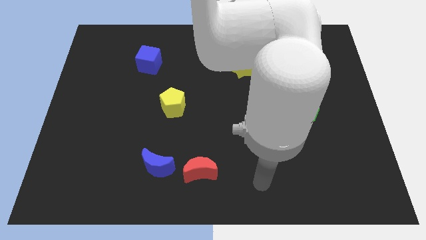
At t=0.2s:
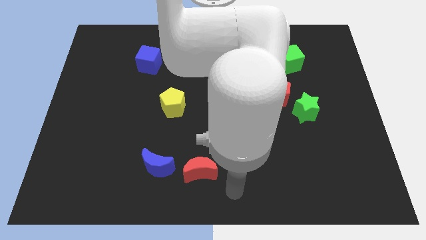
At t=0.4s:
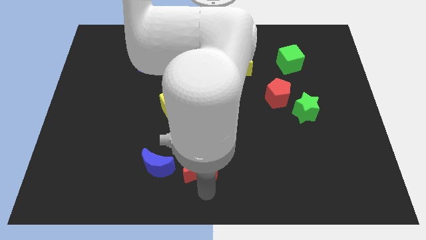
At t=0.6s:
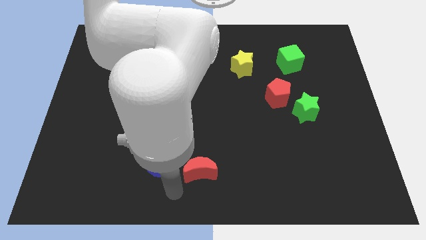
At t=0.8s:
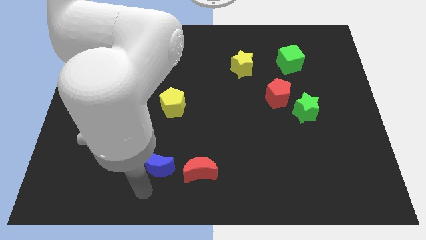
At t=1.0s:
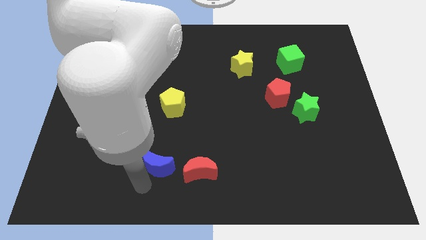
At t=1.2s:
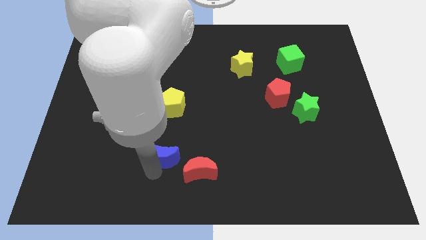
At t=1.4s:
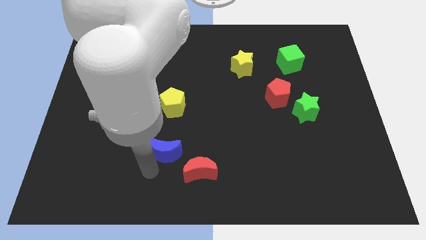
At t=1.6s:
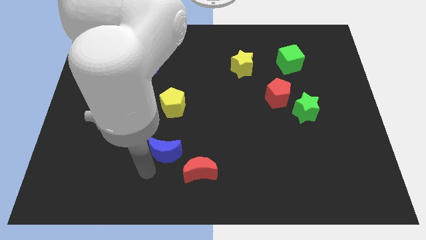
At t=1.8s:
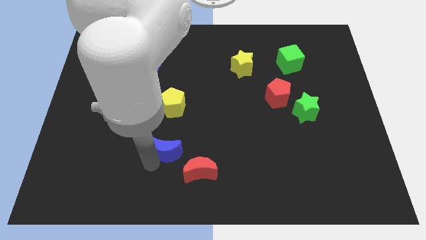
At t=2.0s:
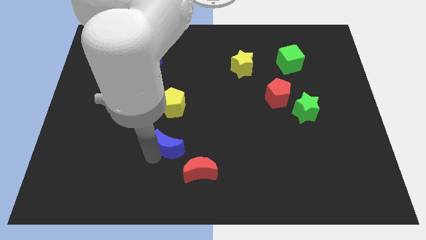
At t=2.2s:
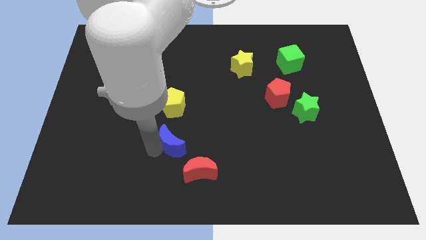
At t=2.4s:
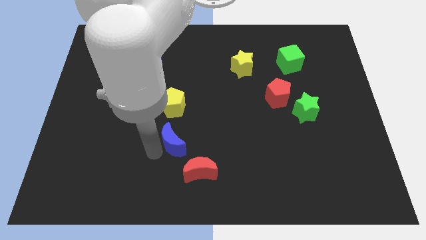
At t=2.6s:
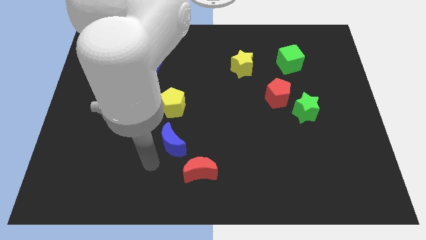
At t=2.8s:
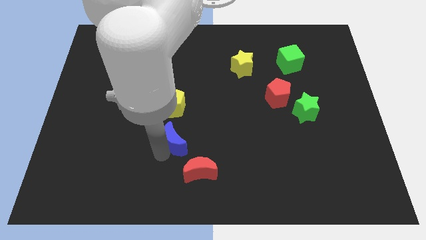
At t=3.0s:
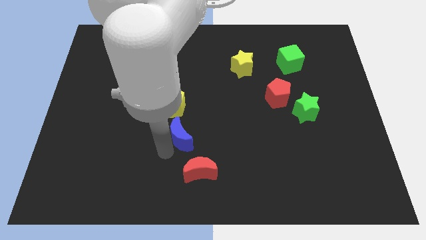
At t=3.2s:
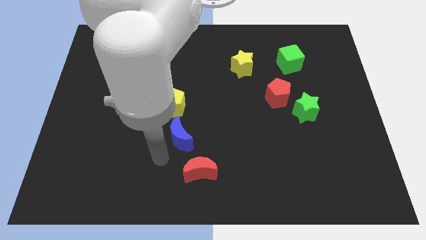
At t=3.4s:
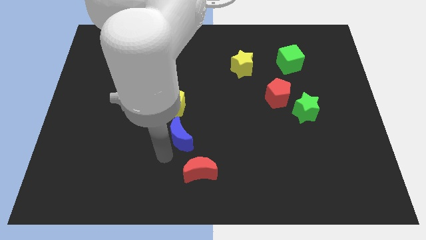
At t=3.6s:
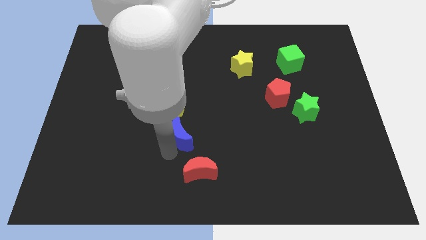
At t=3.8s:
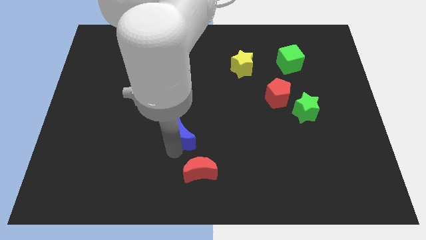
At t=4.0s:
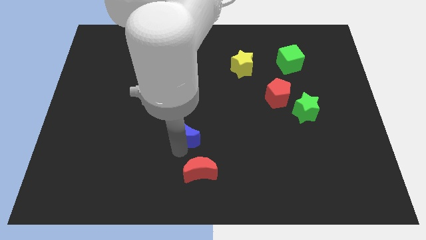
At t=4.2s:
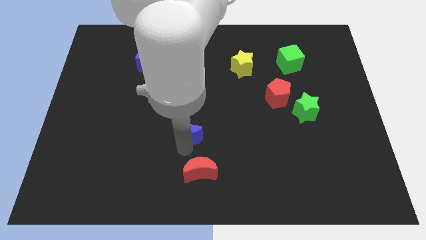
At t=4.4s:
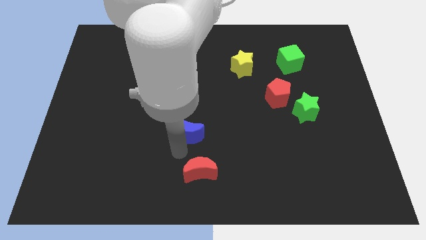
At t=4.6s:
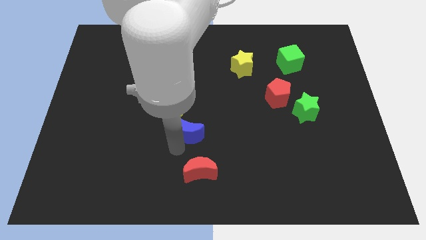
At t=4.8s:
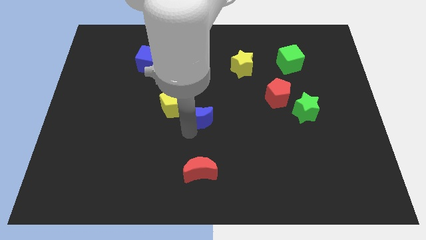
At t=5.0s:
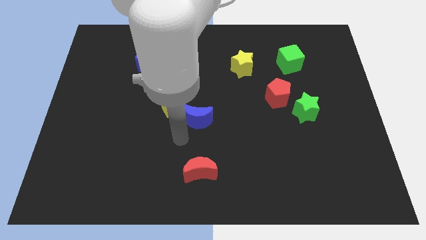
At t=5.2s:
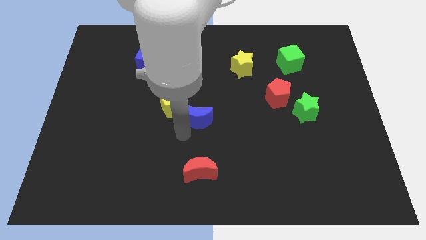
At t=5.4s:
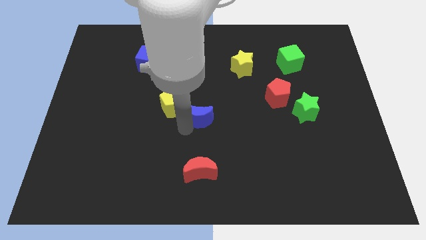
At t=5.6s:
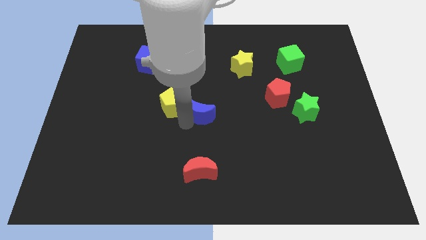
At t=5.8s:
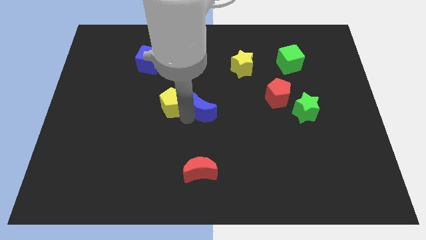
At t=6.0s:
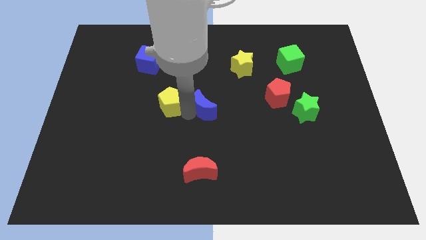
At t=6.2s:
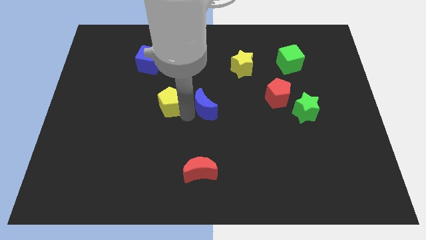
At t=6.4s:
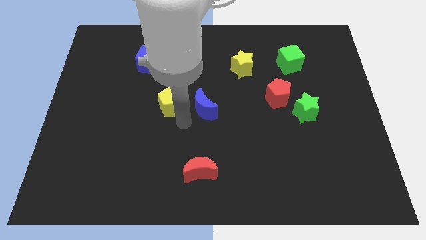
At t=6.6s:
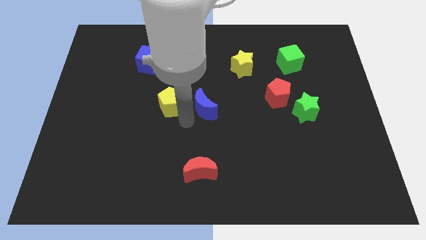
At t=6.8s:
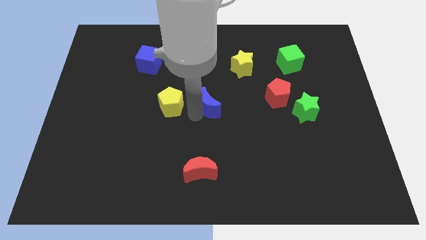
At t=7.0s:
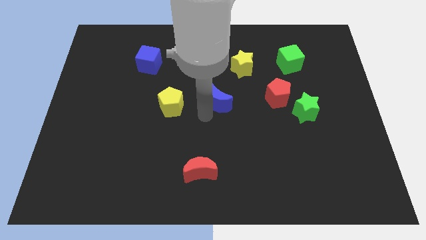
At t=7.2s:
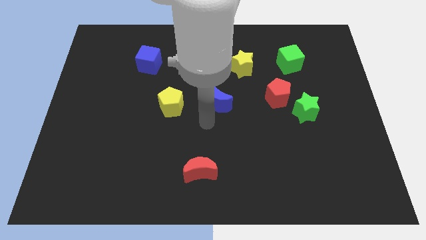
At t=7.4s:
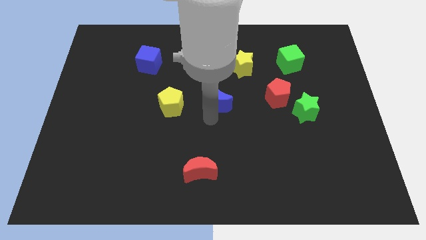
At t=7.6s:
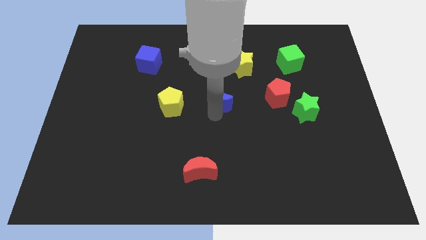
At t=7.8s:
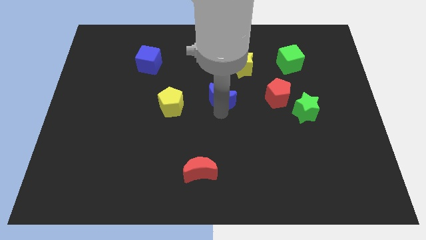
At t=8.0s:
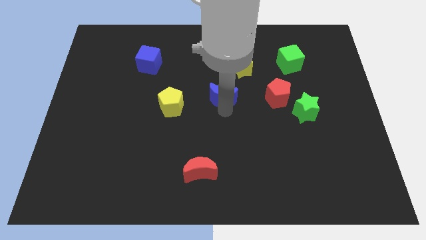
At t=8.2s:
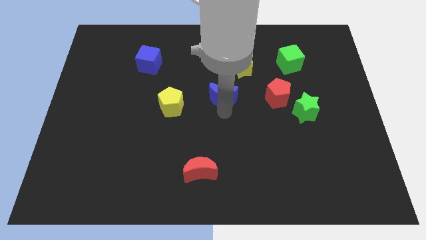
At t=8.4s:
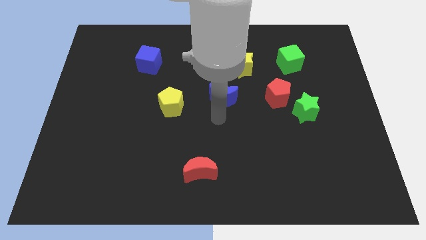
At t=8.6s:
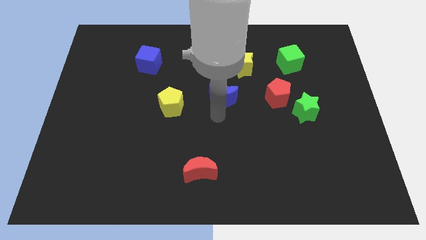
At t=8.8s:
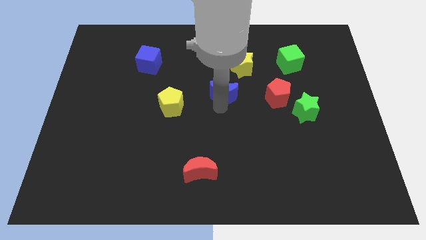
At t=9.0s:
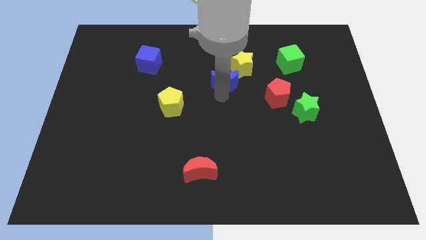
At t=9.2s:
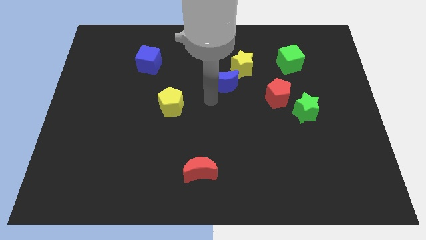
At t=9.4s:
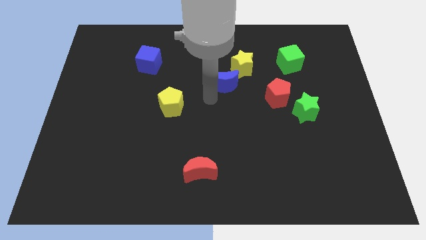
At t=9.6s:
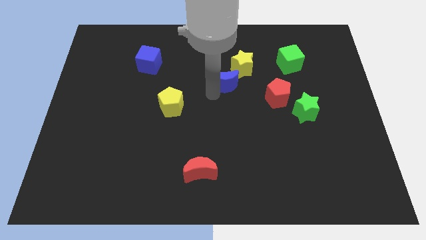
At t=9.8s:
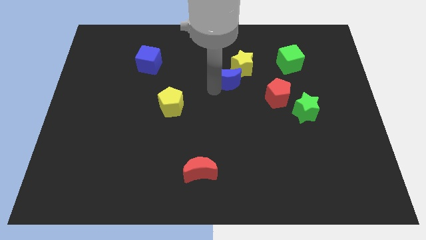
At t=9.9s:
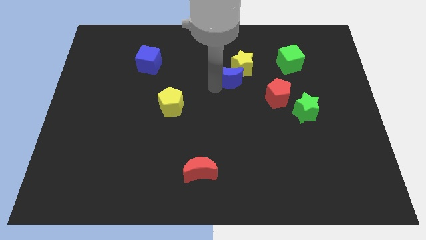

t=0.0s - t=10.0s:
move the blue moon towards the yellow star

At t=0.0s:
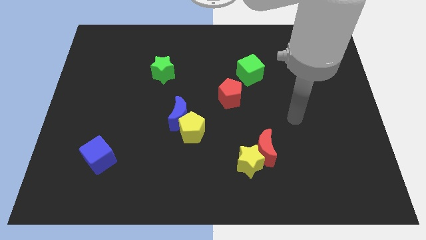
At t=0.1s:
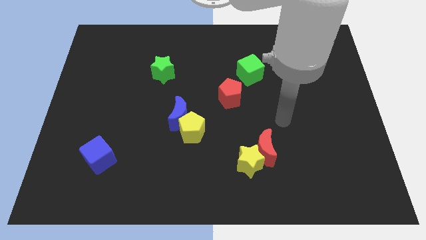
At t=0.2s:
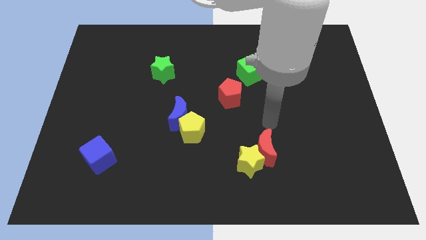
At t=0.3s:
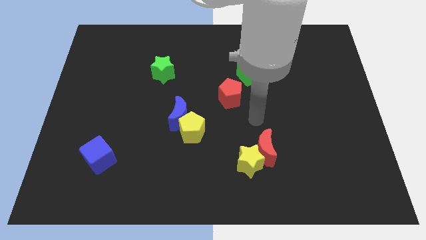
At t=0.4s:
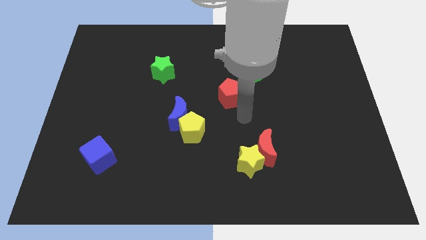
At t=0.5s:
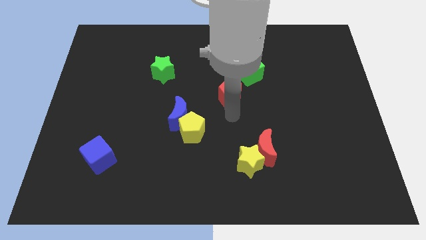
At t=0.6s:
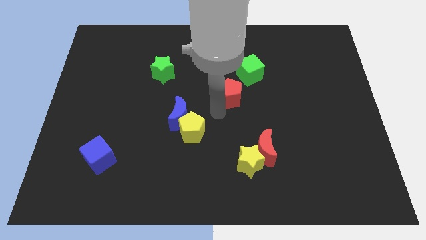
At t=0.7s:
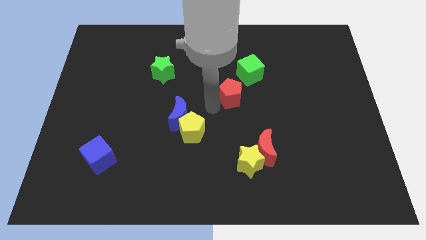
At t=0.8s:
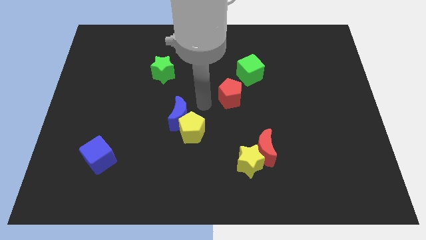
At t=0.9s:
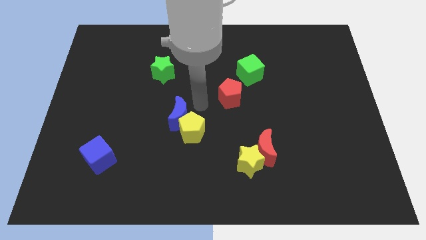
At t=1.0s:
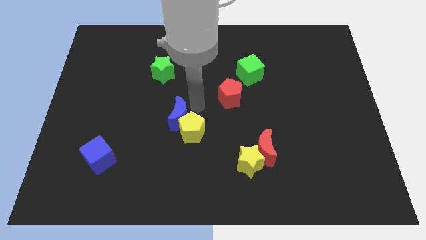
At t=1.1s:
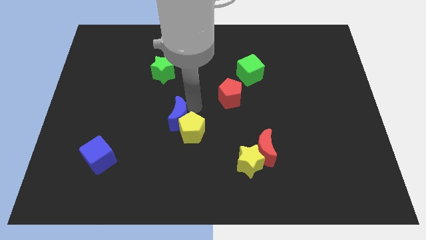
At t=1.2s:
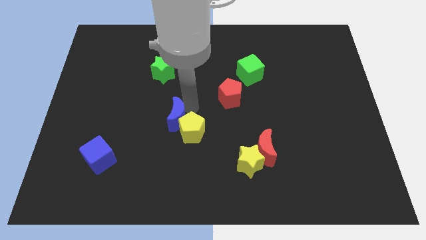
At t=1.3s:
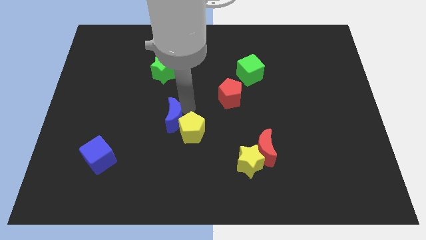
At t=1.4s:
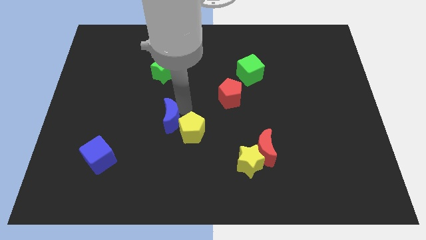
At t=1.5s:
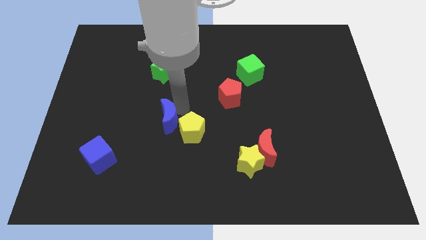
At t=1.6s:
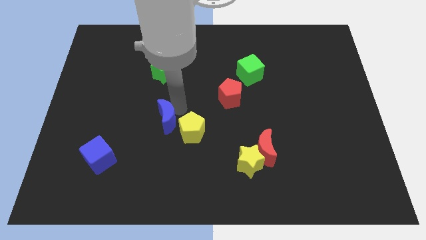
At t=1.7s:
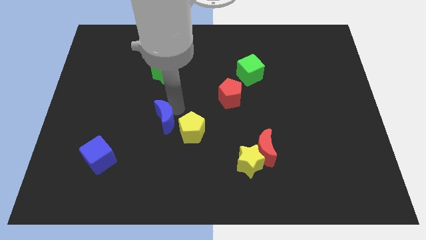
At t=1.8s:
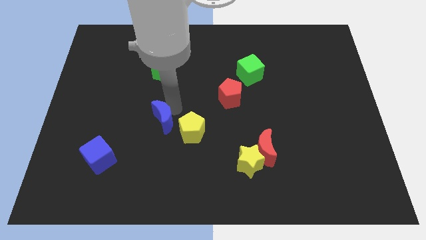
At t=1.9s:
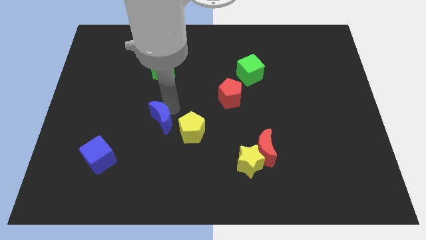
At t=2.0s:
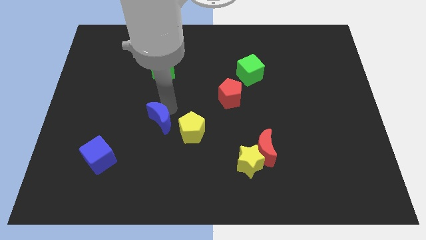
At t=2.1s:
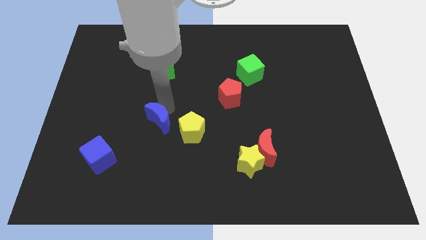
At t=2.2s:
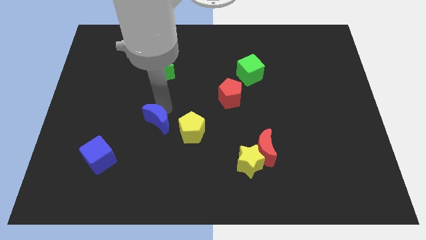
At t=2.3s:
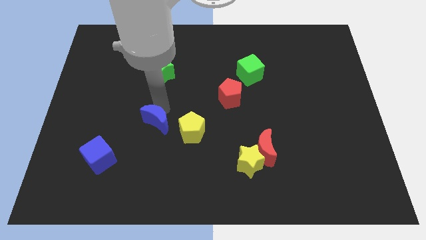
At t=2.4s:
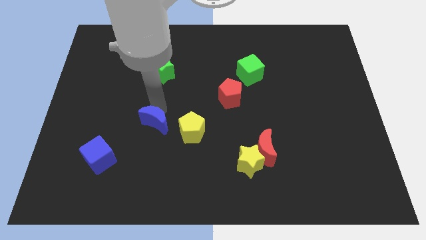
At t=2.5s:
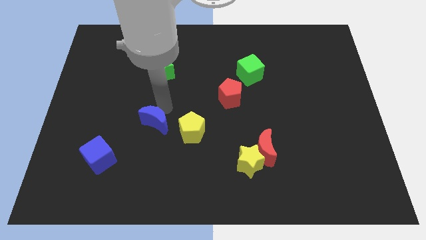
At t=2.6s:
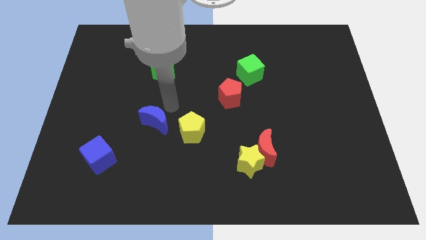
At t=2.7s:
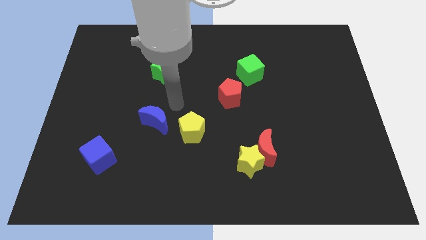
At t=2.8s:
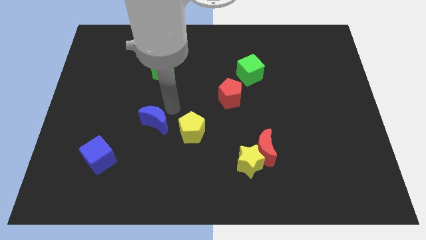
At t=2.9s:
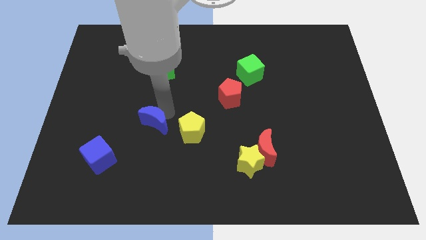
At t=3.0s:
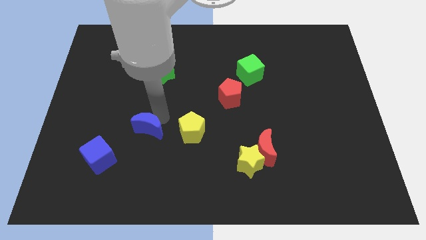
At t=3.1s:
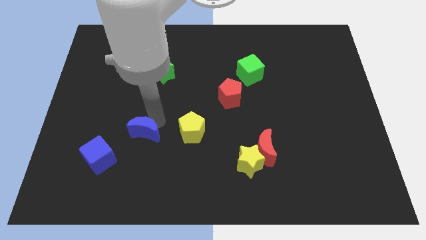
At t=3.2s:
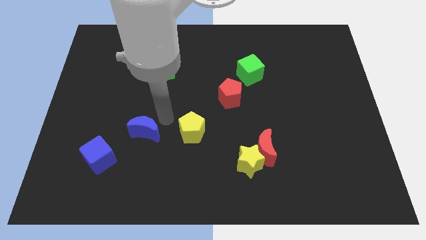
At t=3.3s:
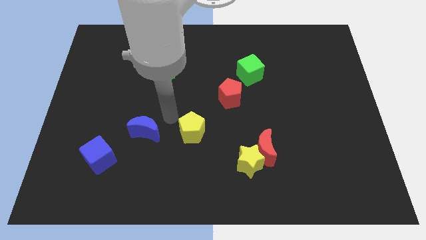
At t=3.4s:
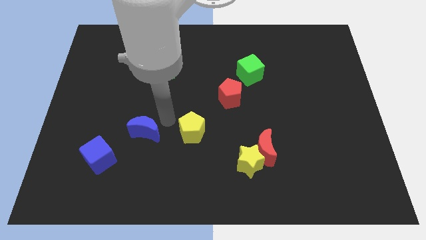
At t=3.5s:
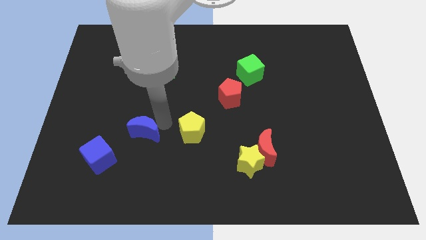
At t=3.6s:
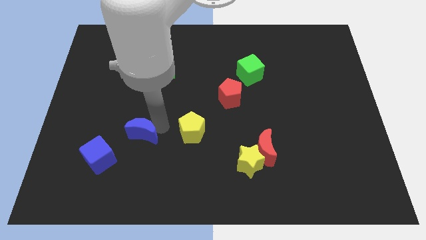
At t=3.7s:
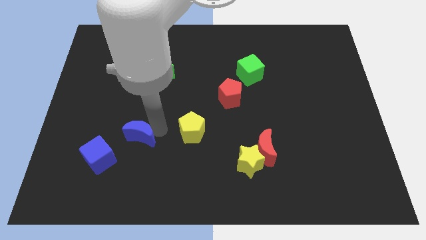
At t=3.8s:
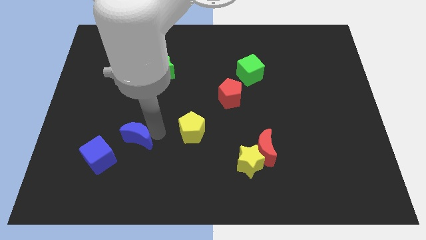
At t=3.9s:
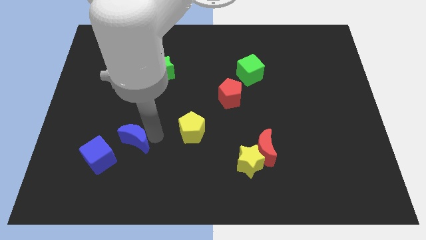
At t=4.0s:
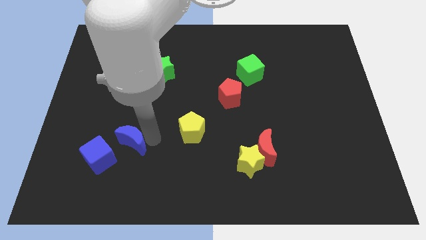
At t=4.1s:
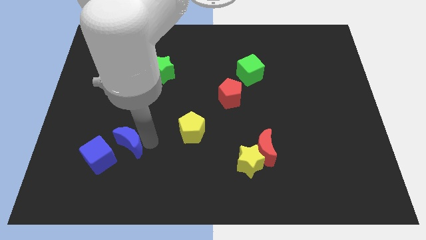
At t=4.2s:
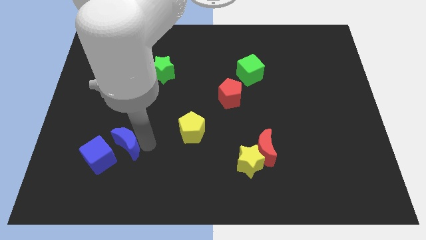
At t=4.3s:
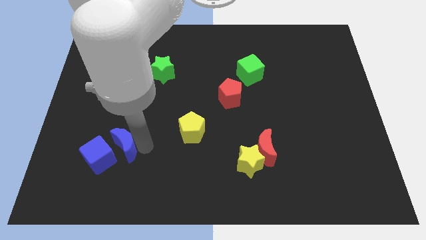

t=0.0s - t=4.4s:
slide the blue moon to the blue cube
